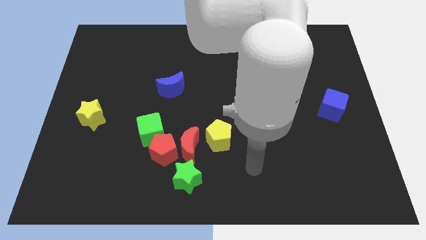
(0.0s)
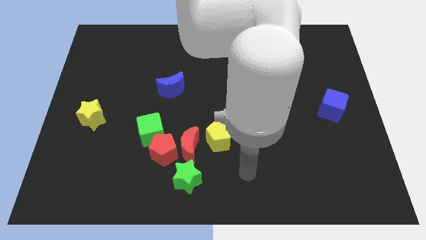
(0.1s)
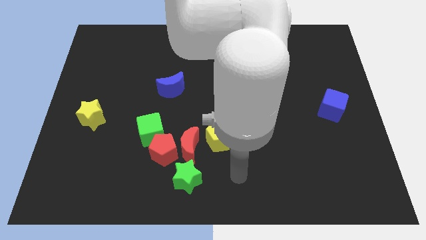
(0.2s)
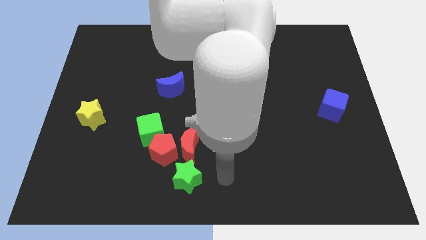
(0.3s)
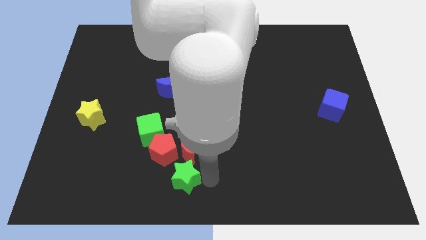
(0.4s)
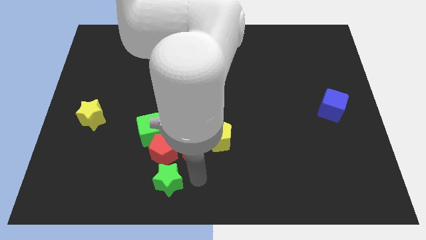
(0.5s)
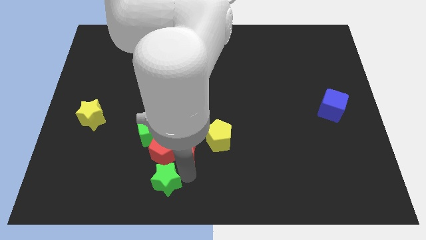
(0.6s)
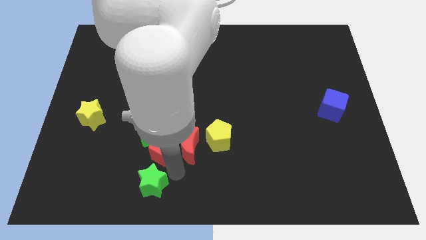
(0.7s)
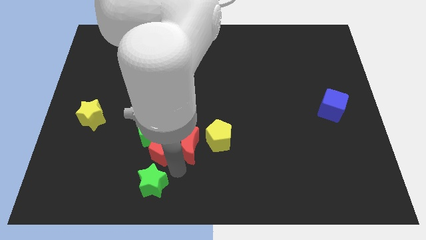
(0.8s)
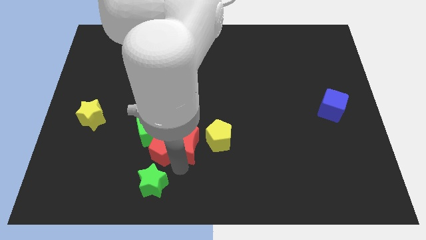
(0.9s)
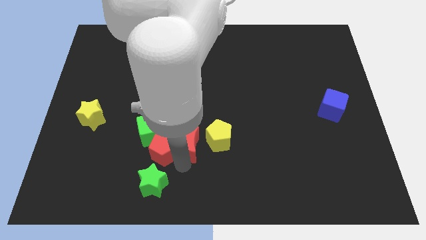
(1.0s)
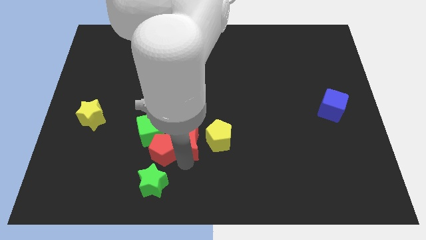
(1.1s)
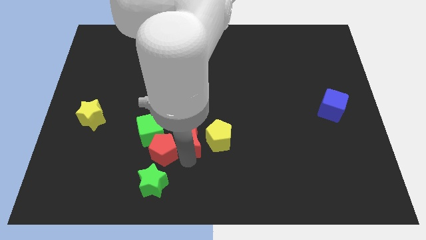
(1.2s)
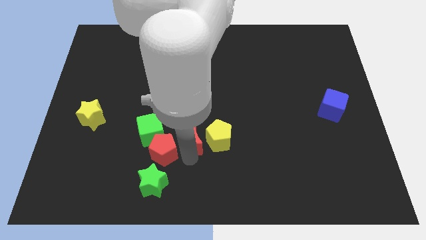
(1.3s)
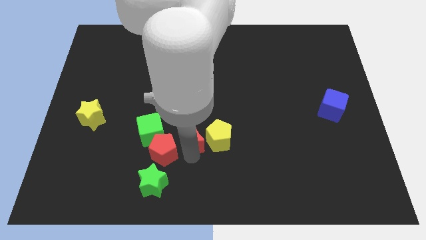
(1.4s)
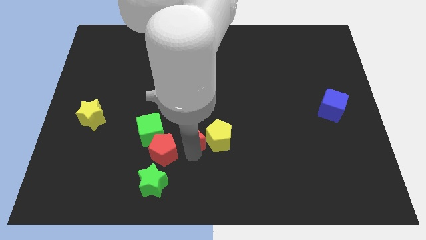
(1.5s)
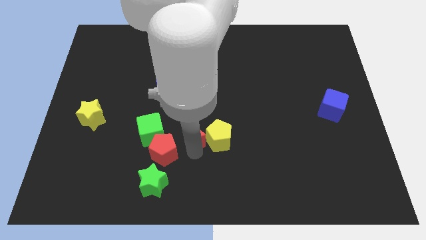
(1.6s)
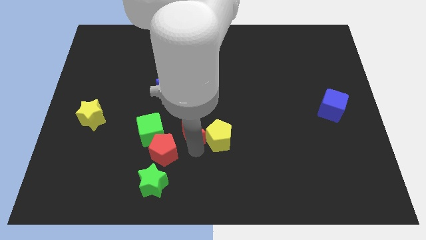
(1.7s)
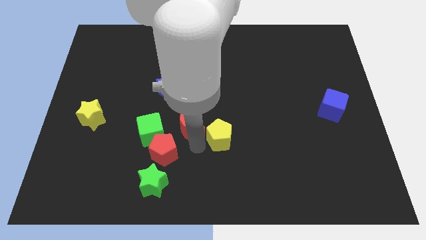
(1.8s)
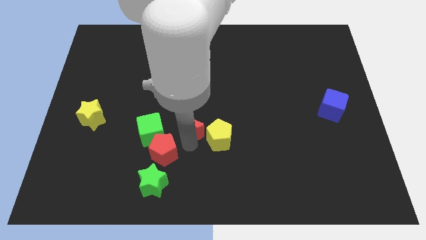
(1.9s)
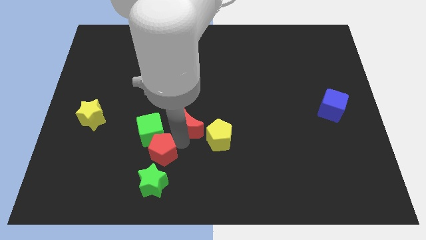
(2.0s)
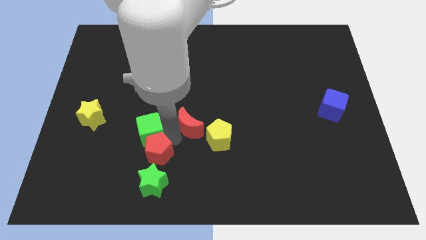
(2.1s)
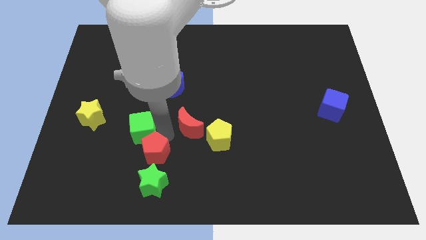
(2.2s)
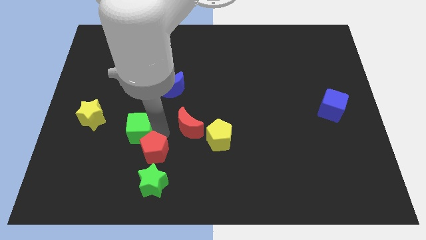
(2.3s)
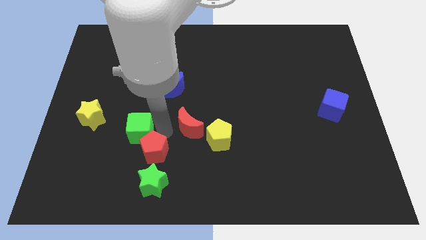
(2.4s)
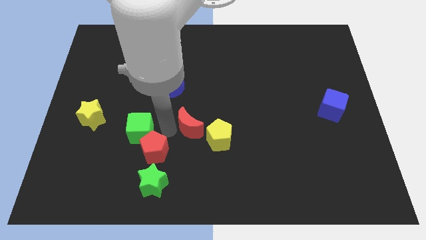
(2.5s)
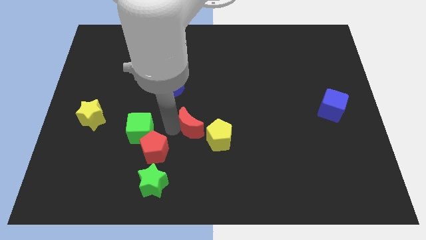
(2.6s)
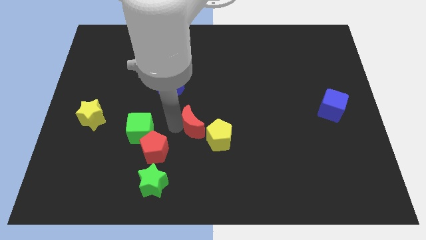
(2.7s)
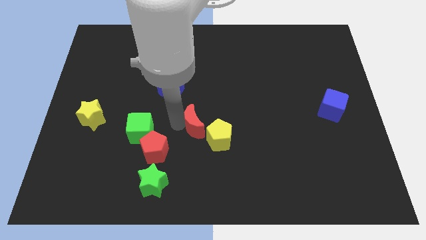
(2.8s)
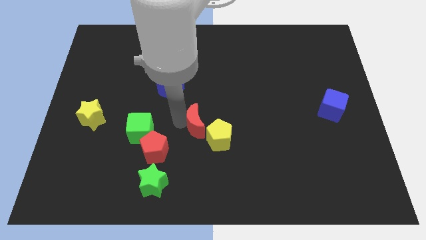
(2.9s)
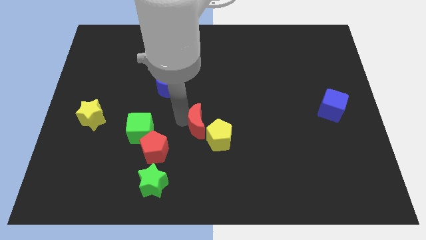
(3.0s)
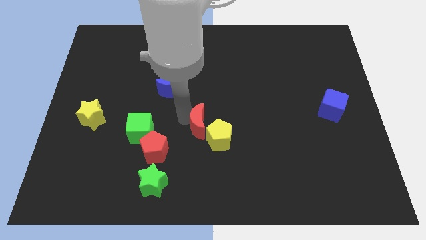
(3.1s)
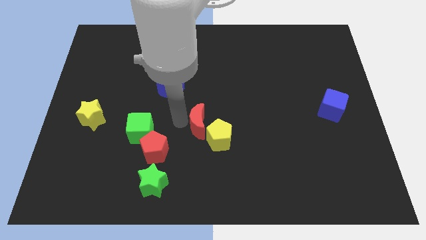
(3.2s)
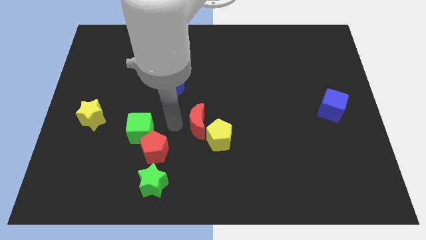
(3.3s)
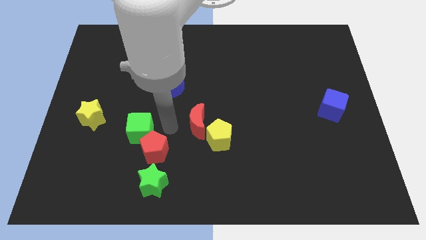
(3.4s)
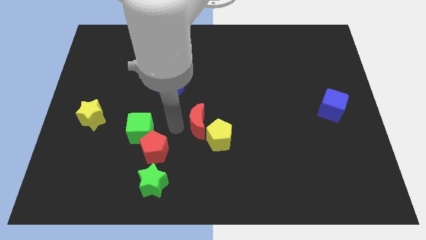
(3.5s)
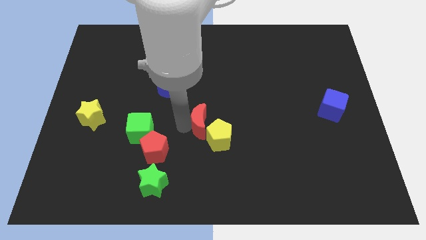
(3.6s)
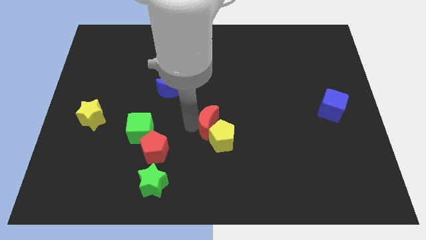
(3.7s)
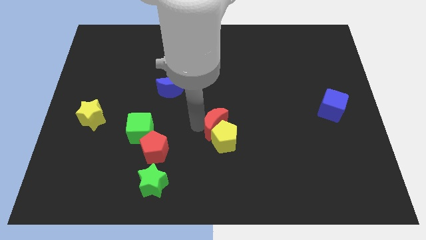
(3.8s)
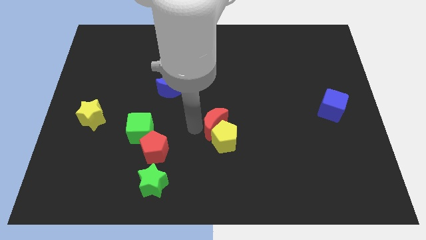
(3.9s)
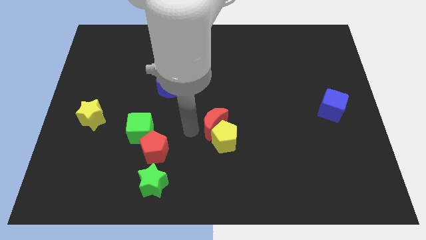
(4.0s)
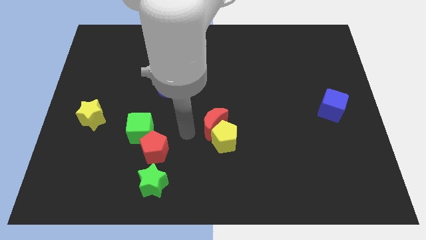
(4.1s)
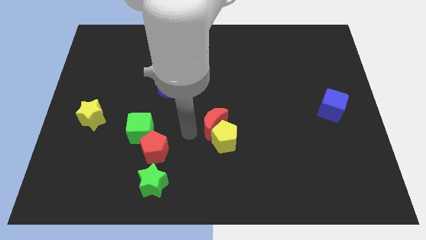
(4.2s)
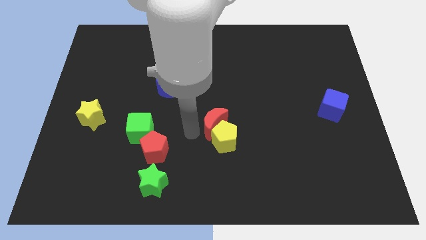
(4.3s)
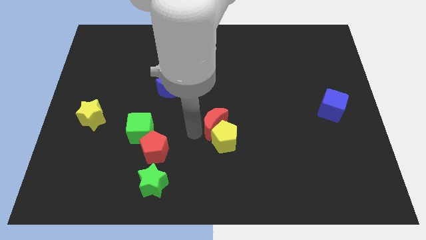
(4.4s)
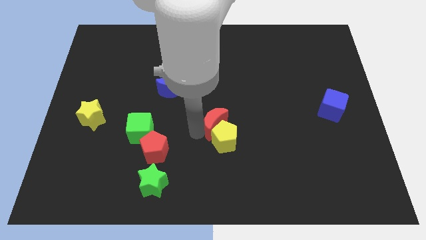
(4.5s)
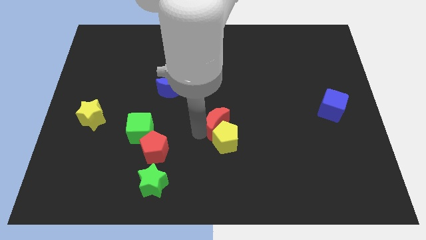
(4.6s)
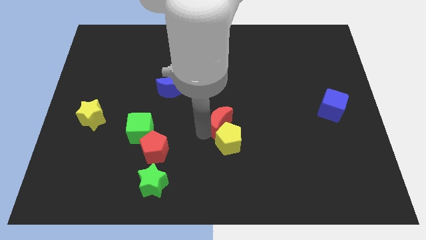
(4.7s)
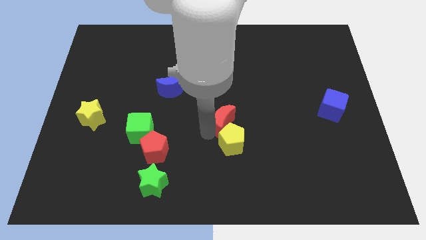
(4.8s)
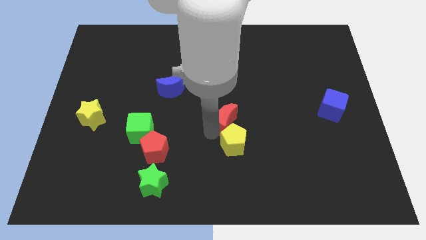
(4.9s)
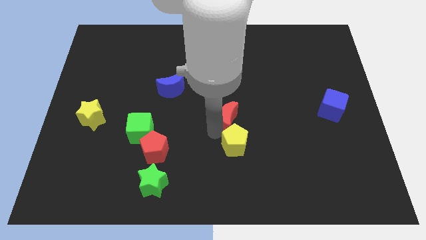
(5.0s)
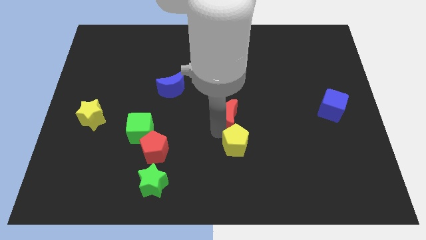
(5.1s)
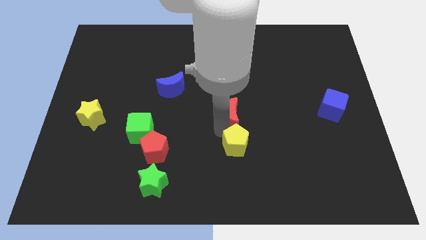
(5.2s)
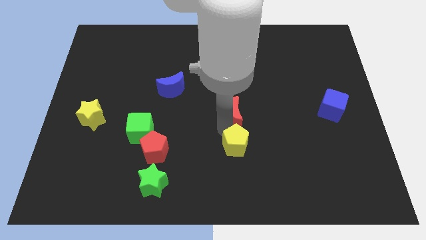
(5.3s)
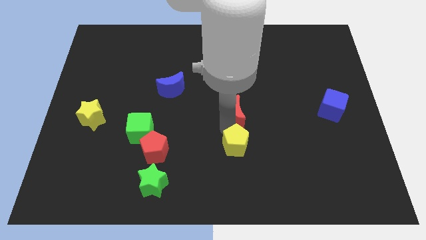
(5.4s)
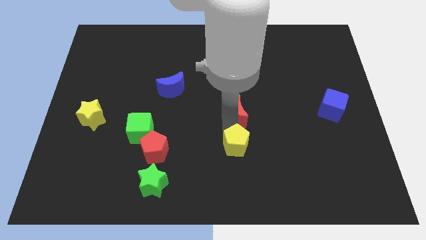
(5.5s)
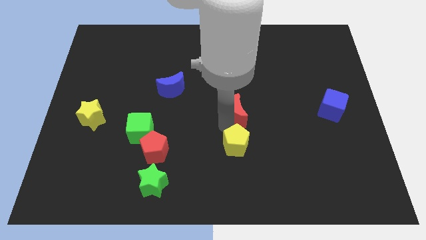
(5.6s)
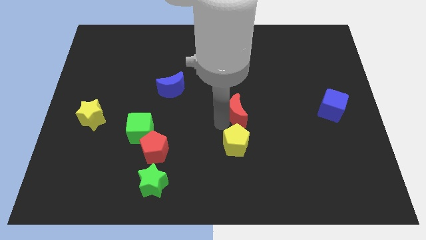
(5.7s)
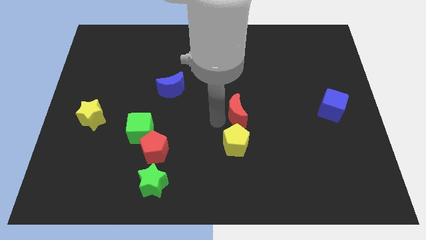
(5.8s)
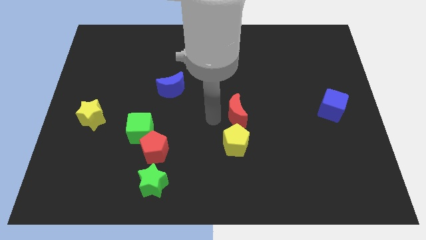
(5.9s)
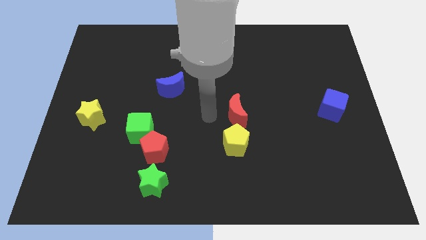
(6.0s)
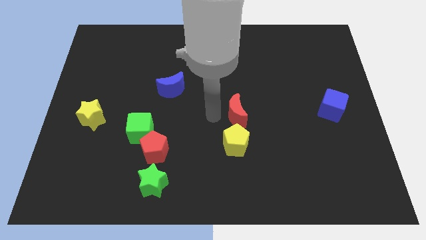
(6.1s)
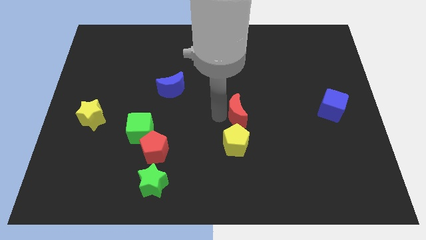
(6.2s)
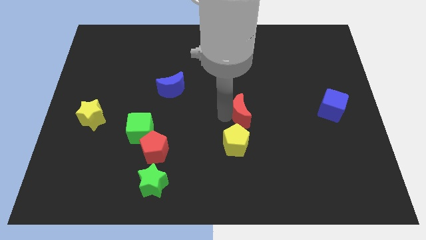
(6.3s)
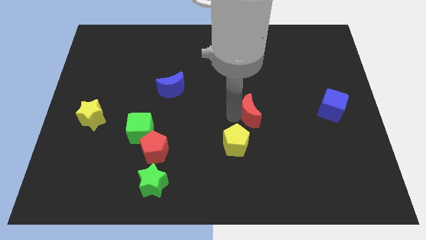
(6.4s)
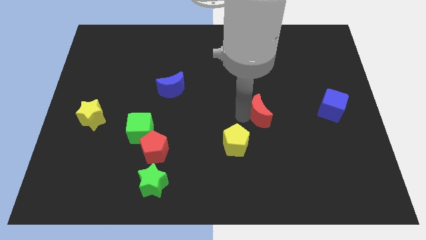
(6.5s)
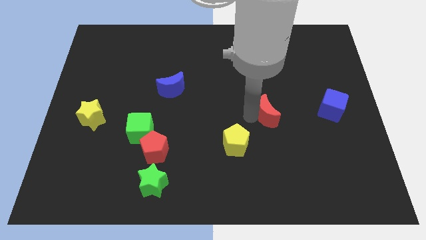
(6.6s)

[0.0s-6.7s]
push the red moon left of the blue cube

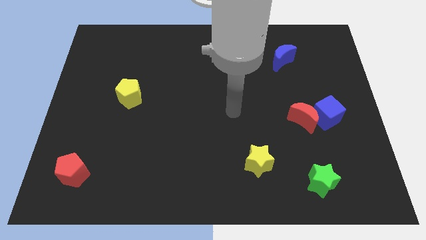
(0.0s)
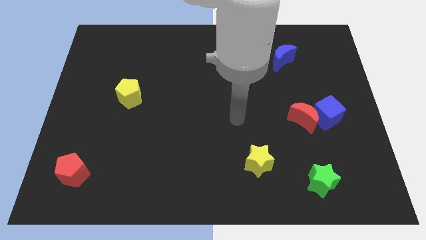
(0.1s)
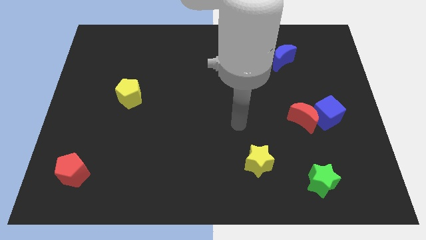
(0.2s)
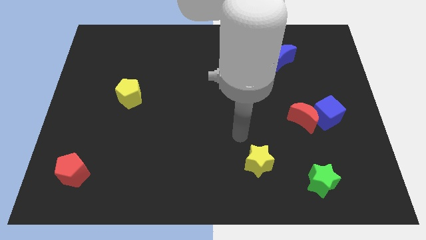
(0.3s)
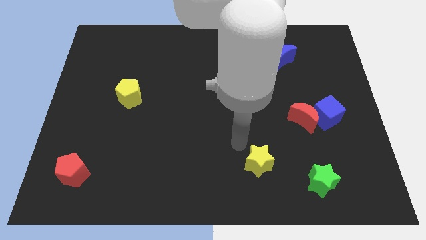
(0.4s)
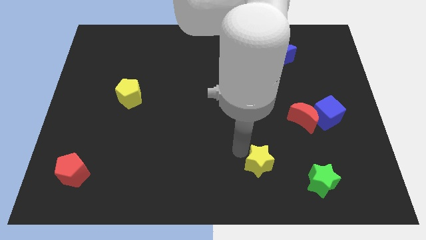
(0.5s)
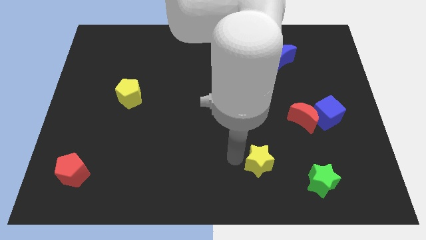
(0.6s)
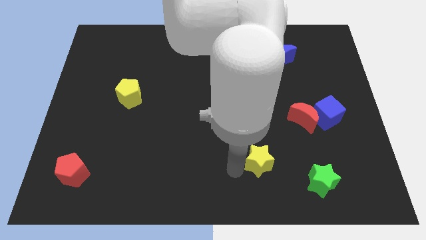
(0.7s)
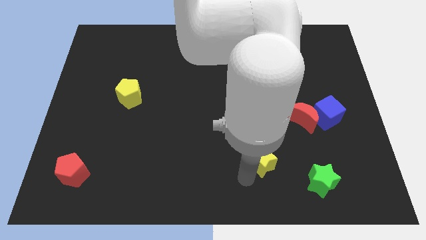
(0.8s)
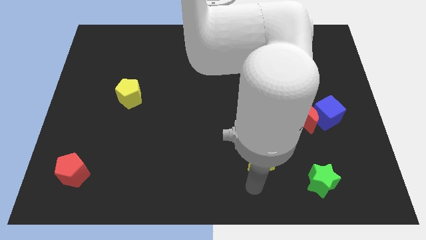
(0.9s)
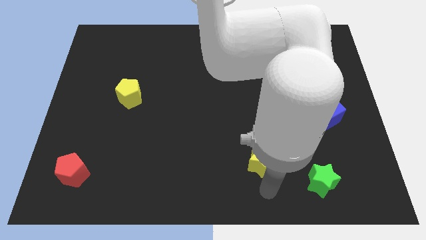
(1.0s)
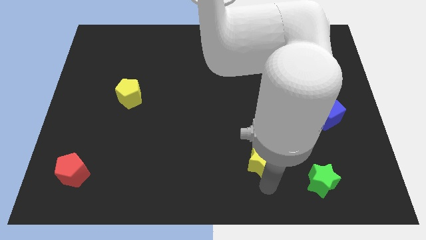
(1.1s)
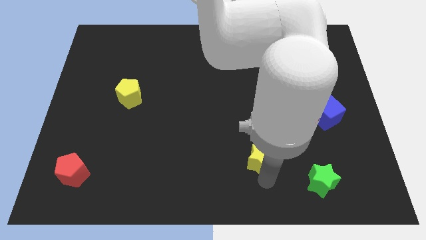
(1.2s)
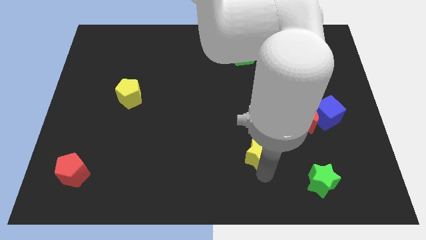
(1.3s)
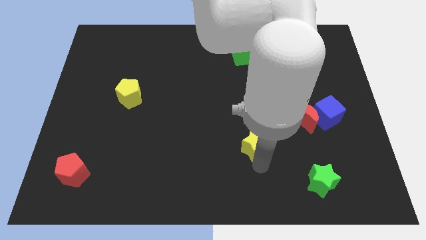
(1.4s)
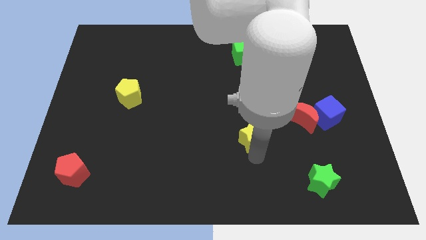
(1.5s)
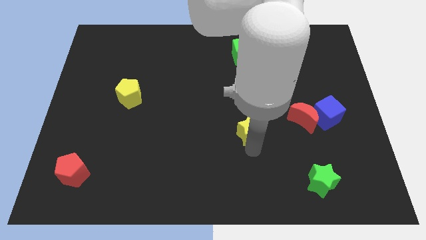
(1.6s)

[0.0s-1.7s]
slide the yellow star just left of the red moon
